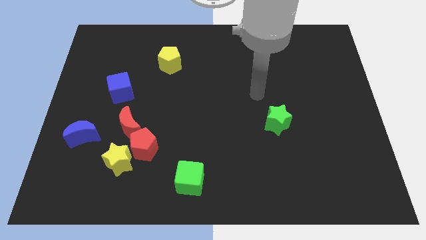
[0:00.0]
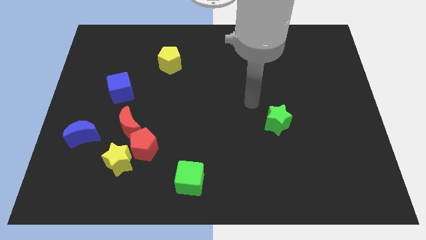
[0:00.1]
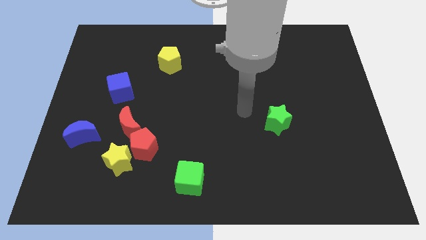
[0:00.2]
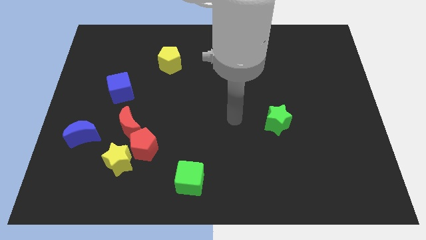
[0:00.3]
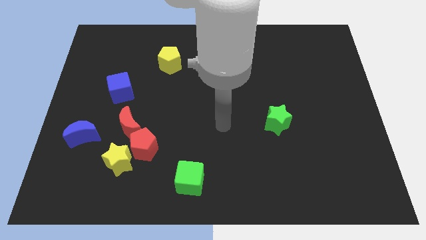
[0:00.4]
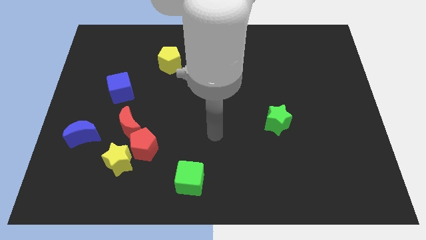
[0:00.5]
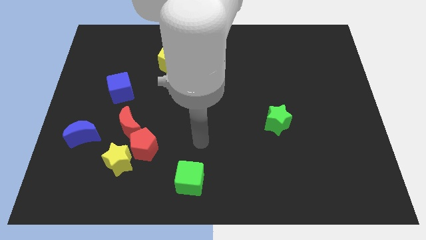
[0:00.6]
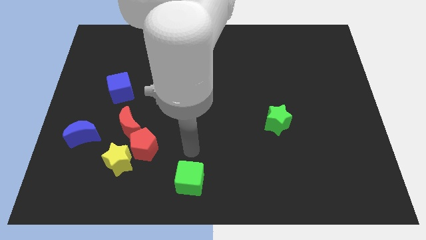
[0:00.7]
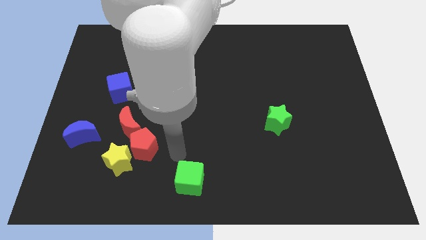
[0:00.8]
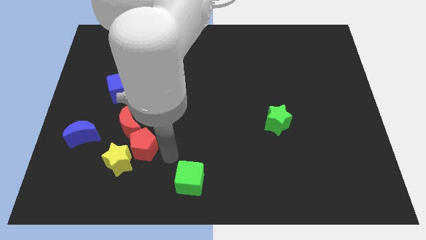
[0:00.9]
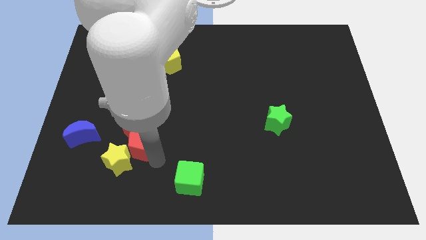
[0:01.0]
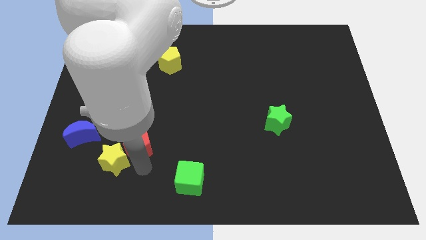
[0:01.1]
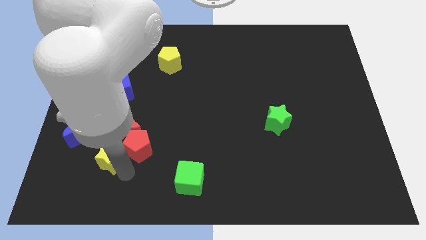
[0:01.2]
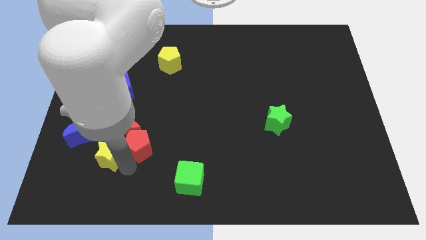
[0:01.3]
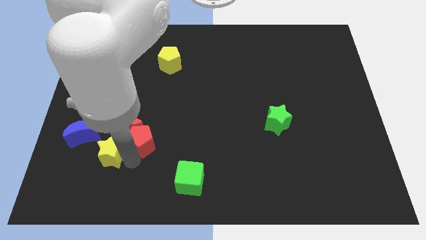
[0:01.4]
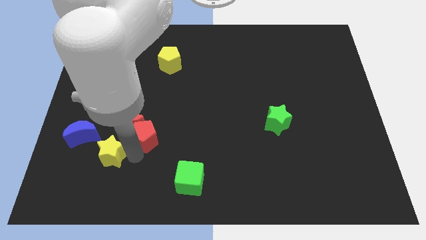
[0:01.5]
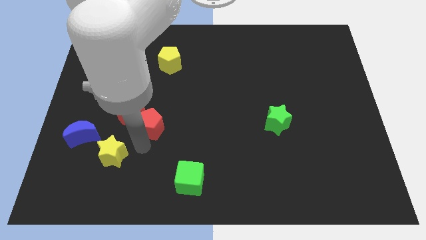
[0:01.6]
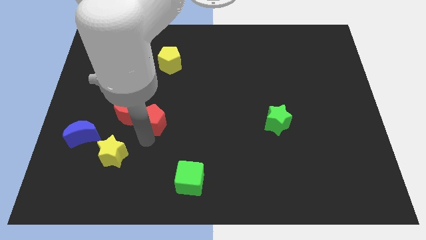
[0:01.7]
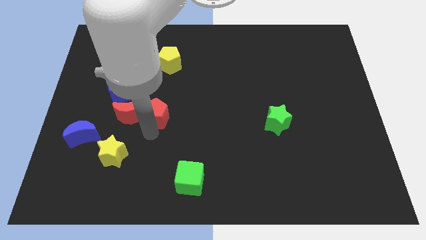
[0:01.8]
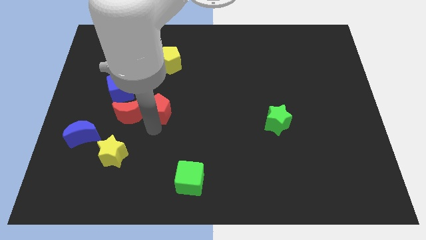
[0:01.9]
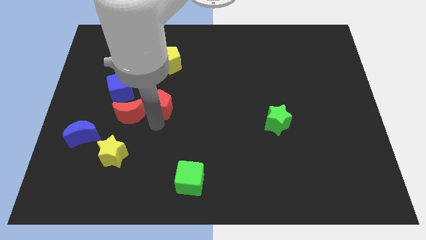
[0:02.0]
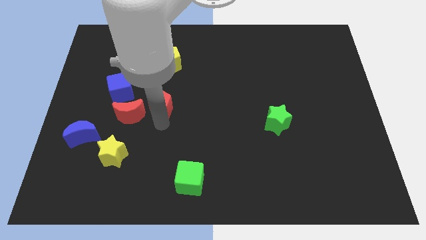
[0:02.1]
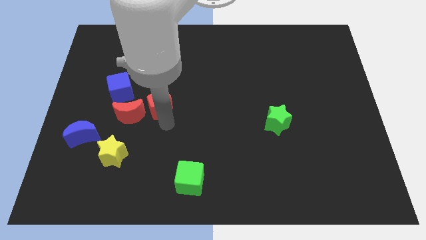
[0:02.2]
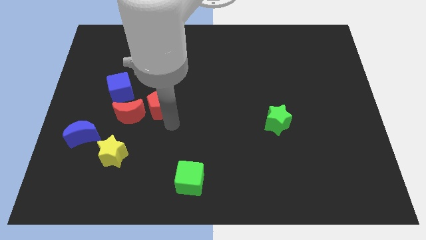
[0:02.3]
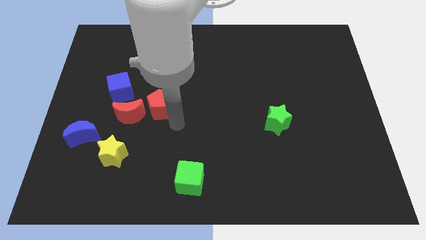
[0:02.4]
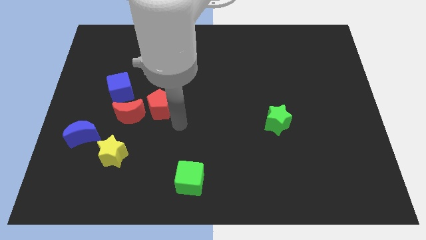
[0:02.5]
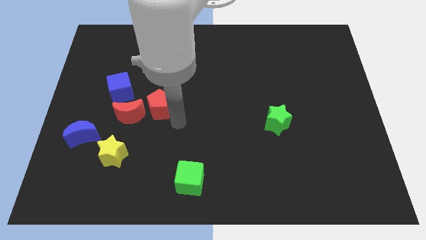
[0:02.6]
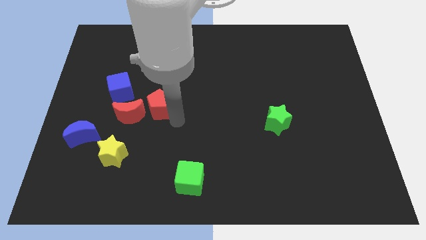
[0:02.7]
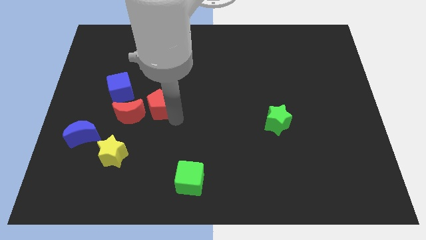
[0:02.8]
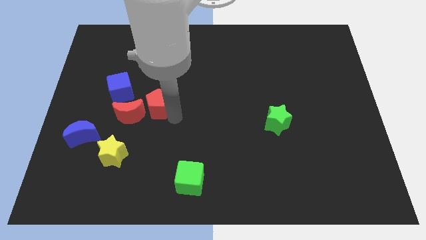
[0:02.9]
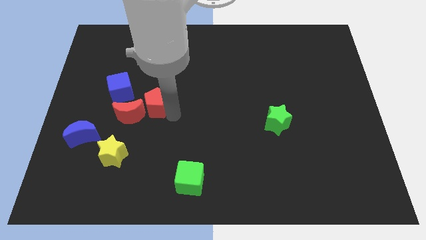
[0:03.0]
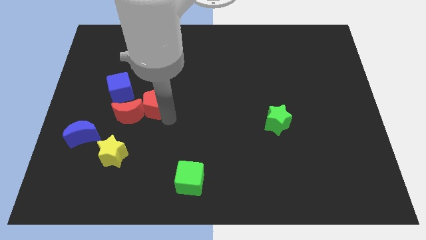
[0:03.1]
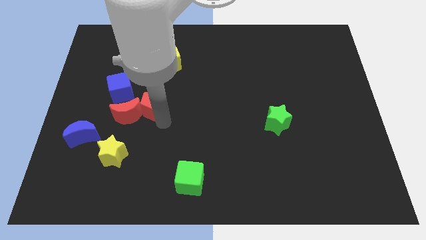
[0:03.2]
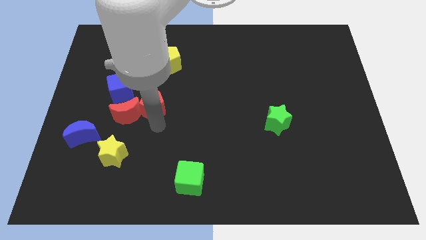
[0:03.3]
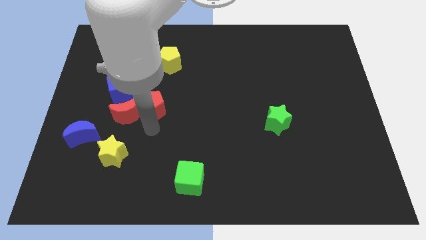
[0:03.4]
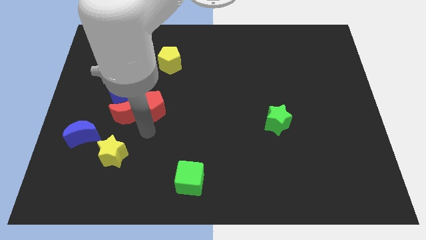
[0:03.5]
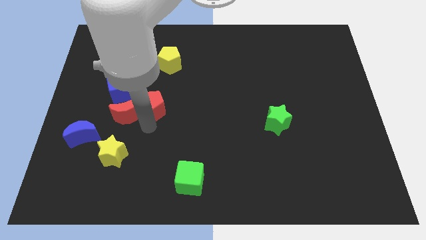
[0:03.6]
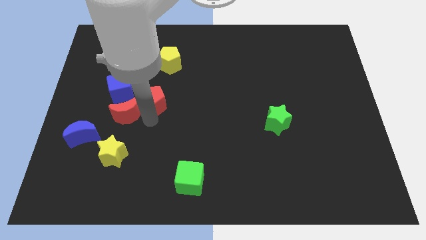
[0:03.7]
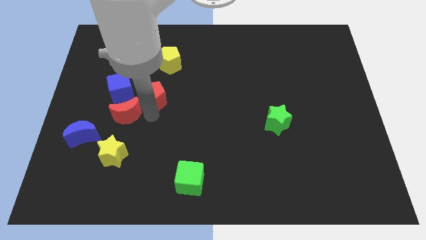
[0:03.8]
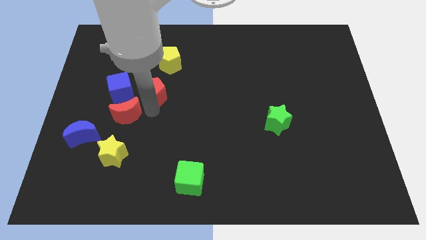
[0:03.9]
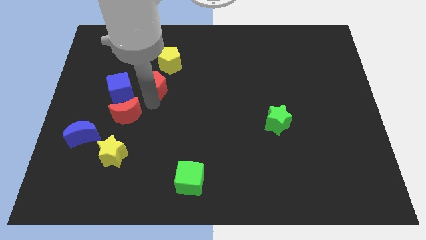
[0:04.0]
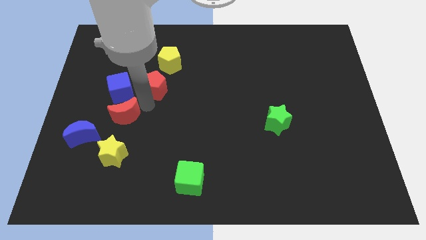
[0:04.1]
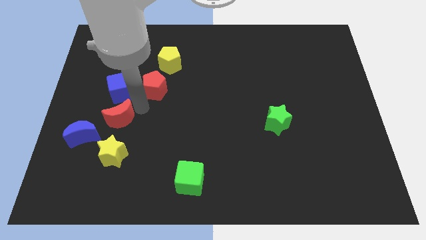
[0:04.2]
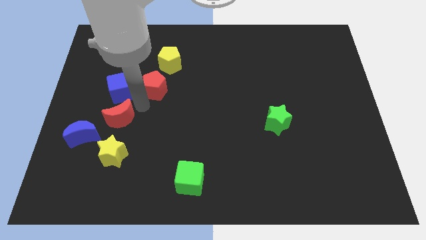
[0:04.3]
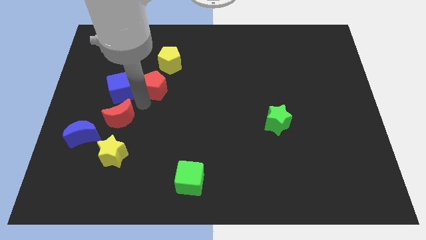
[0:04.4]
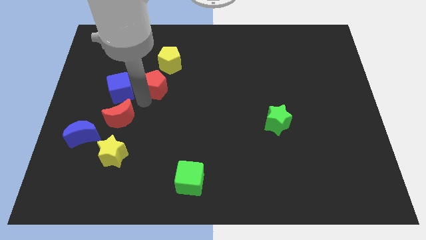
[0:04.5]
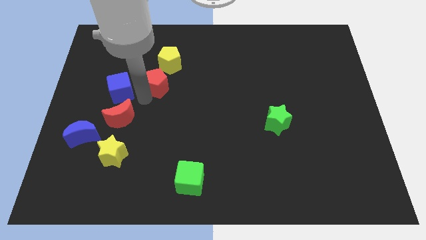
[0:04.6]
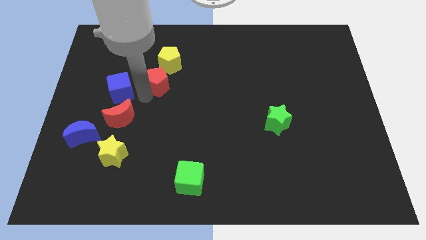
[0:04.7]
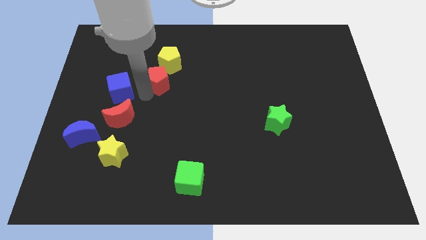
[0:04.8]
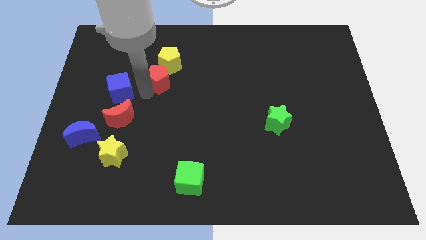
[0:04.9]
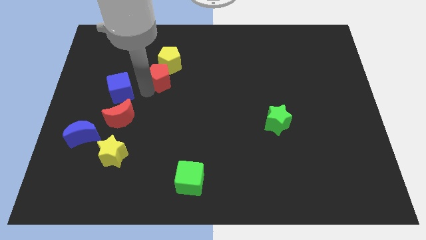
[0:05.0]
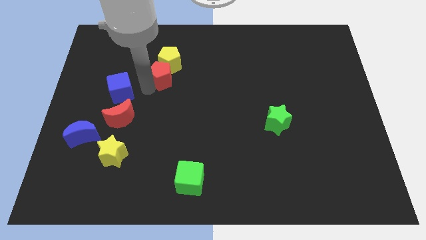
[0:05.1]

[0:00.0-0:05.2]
put the red pentagon next to the yellow pentagon

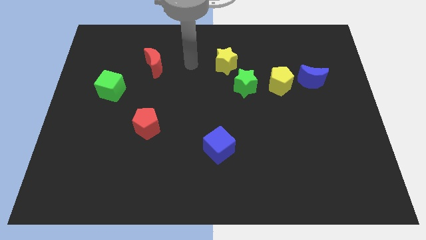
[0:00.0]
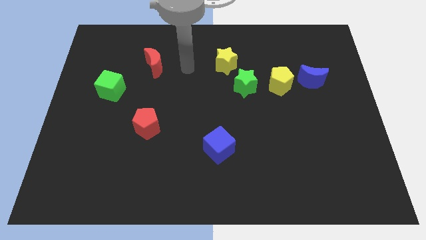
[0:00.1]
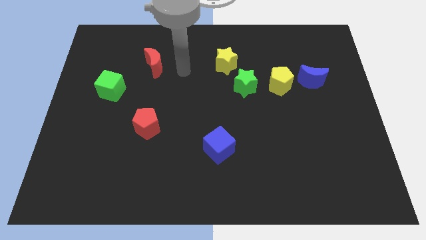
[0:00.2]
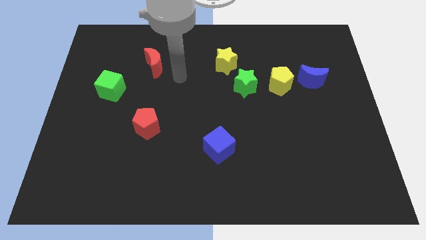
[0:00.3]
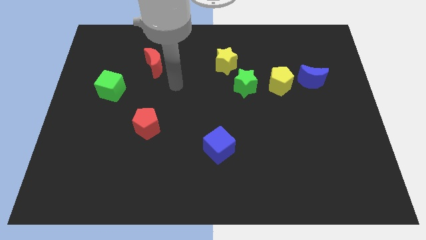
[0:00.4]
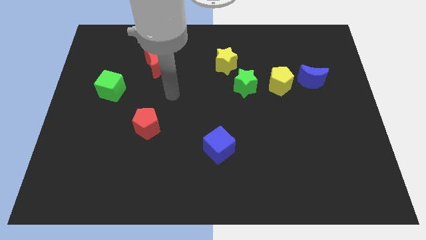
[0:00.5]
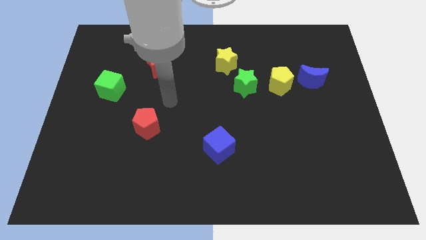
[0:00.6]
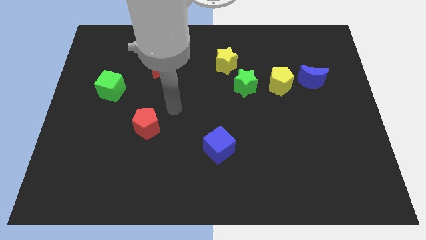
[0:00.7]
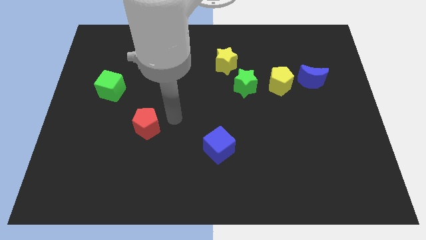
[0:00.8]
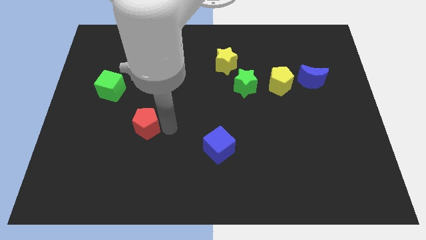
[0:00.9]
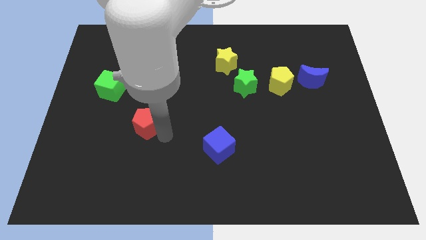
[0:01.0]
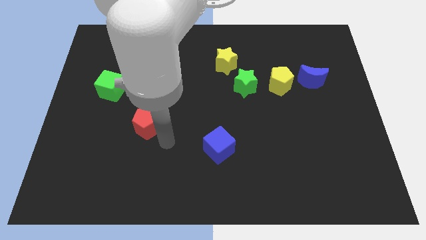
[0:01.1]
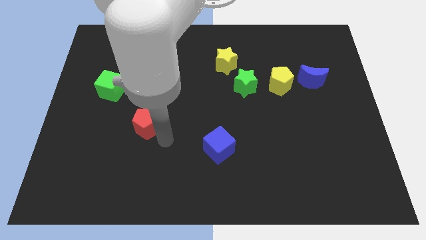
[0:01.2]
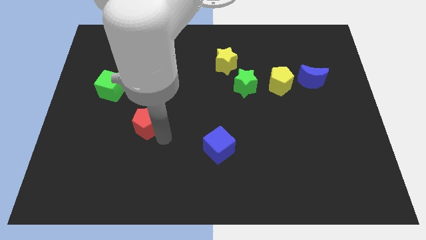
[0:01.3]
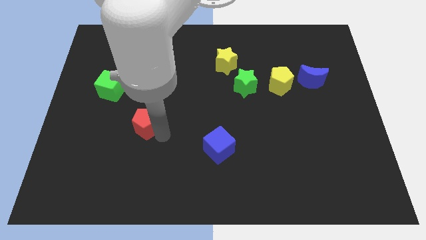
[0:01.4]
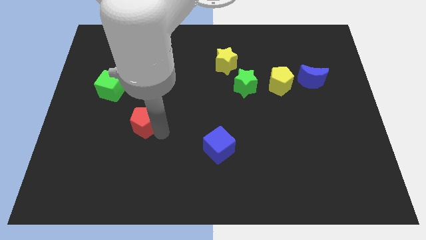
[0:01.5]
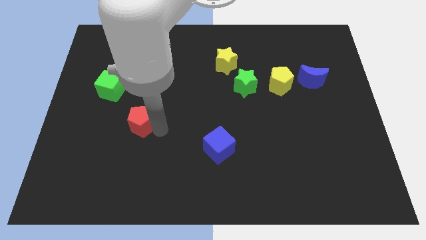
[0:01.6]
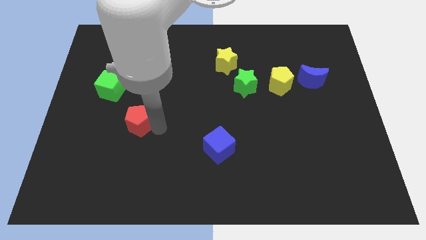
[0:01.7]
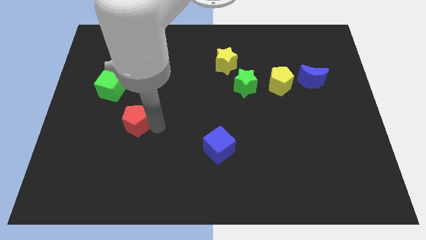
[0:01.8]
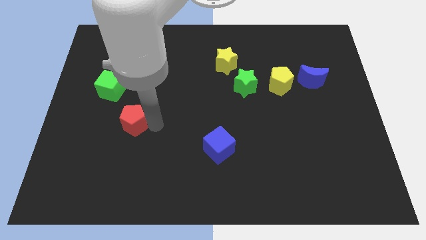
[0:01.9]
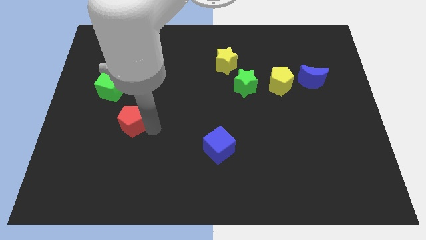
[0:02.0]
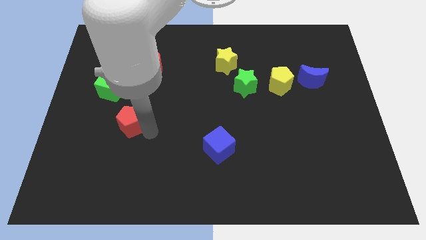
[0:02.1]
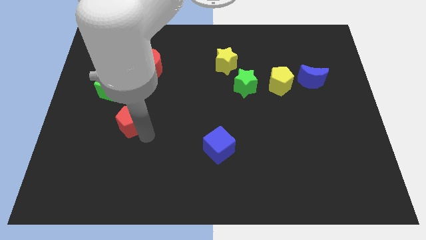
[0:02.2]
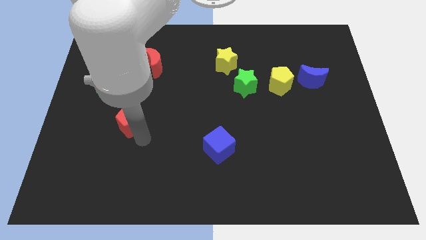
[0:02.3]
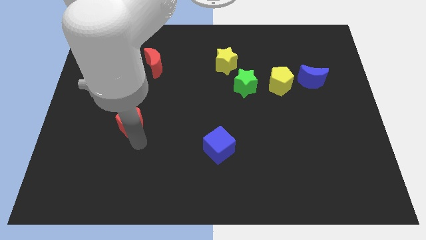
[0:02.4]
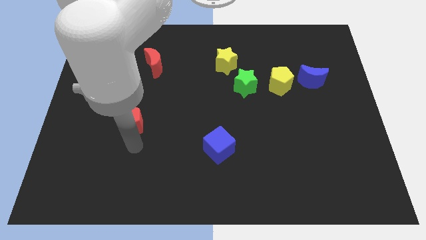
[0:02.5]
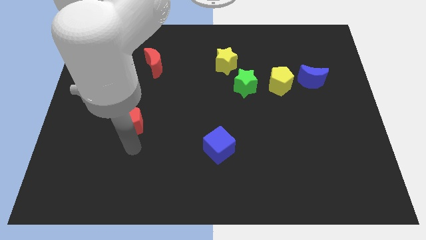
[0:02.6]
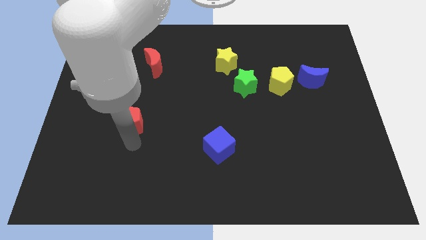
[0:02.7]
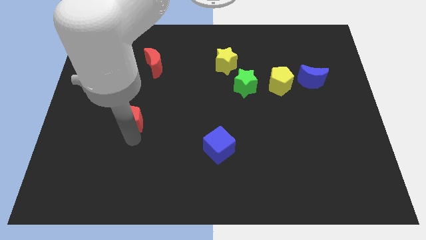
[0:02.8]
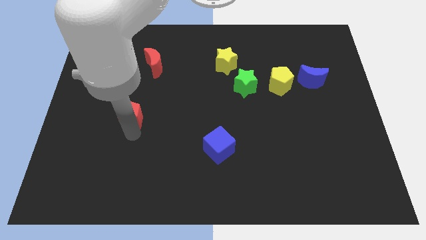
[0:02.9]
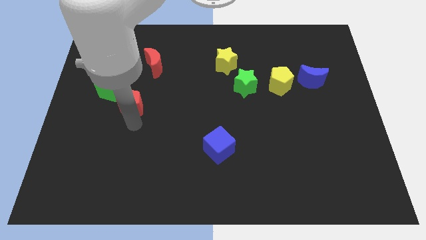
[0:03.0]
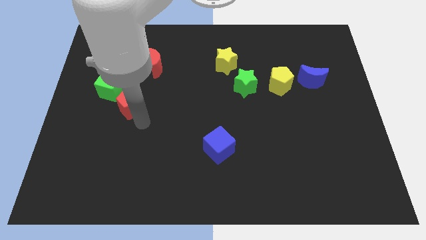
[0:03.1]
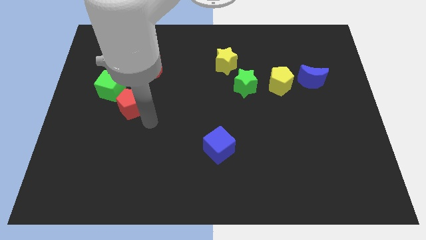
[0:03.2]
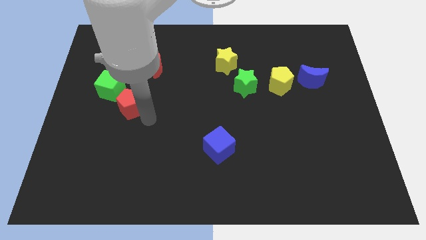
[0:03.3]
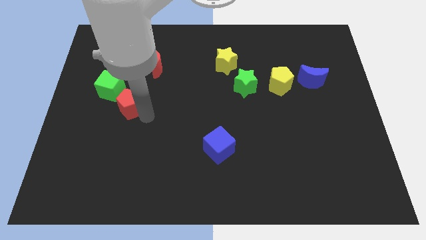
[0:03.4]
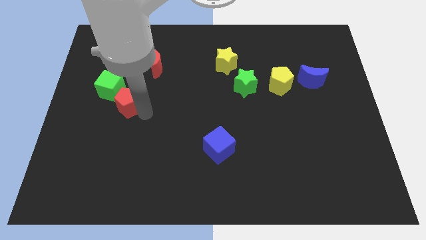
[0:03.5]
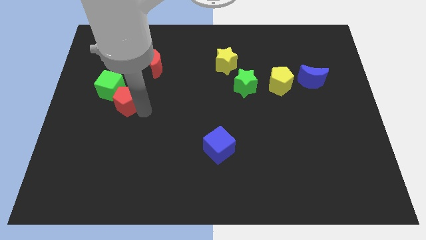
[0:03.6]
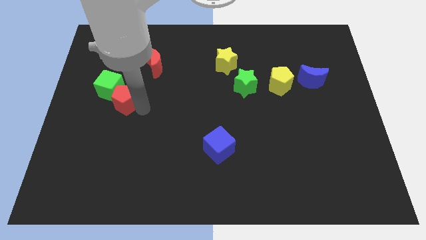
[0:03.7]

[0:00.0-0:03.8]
put the red pentagon next to the green cube
